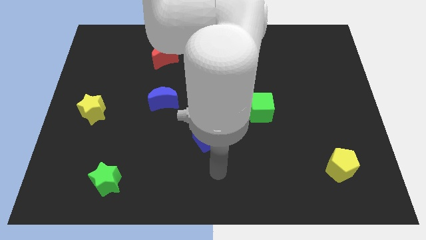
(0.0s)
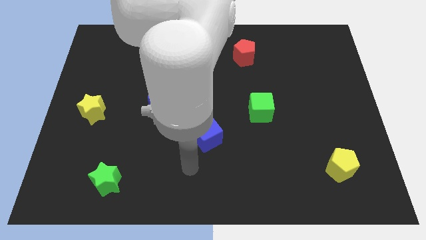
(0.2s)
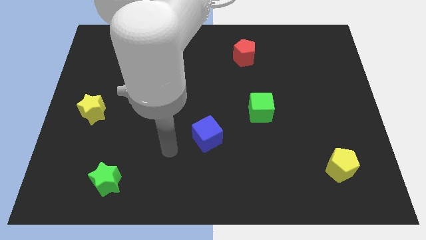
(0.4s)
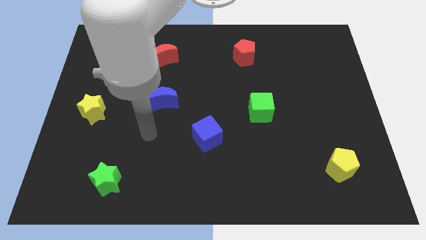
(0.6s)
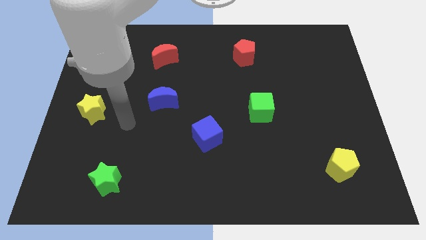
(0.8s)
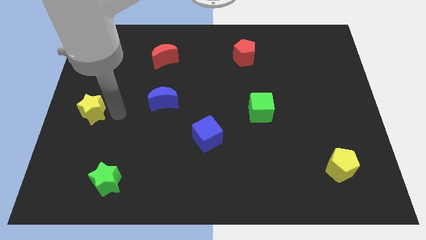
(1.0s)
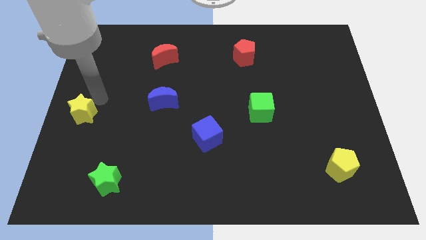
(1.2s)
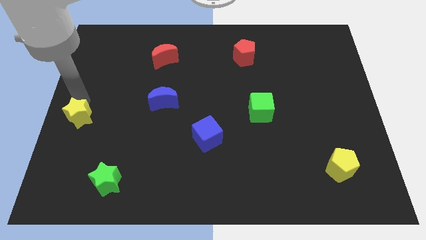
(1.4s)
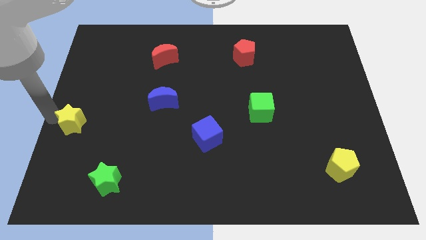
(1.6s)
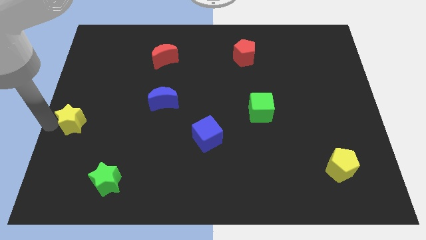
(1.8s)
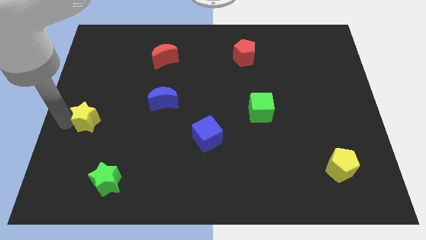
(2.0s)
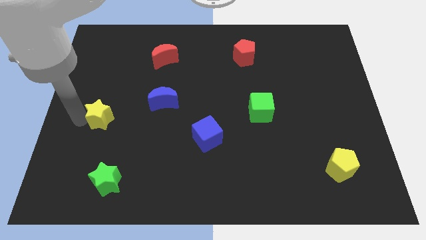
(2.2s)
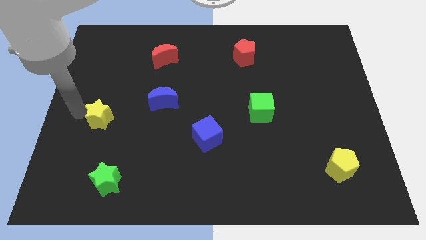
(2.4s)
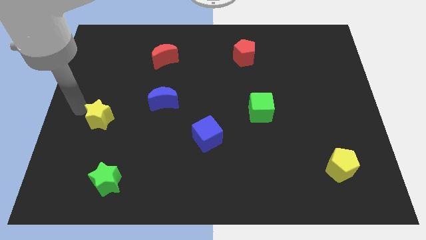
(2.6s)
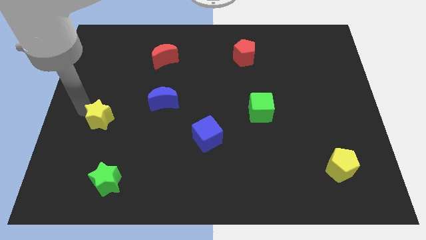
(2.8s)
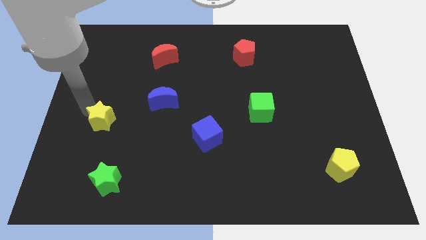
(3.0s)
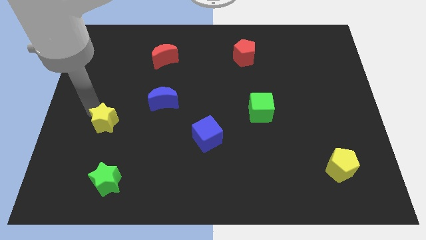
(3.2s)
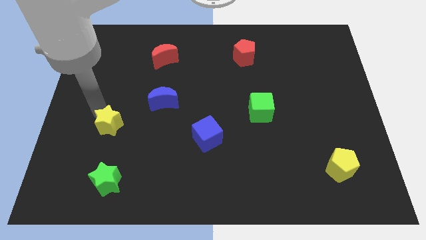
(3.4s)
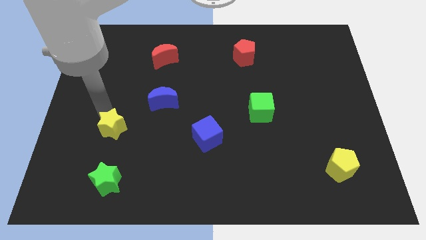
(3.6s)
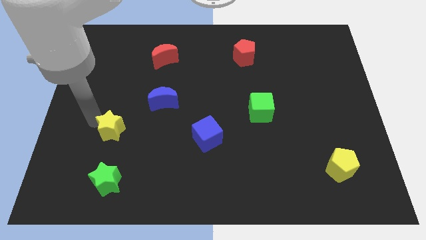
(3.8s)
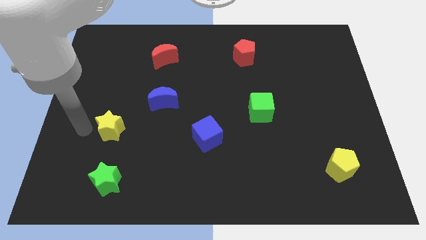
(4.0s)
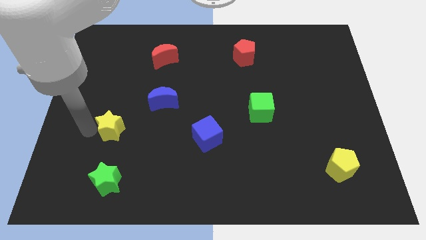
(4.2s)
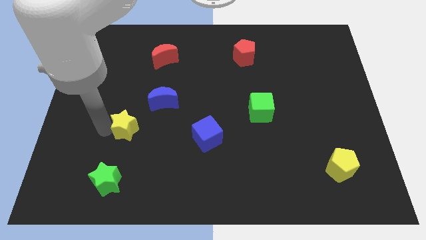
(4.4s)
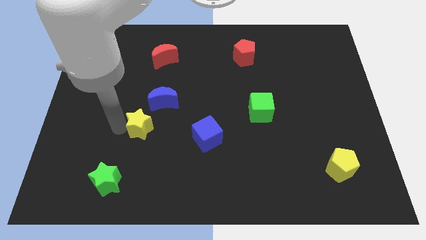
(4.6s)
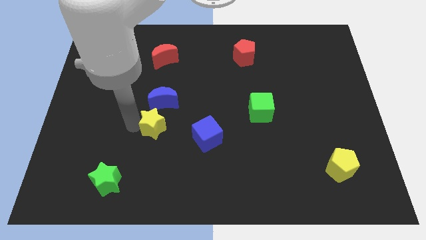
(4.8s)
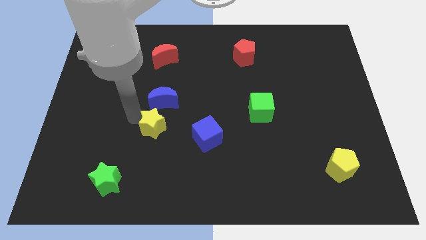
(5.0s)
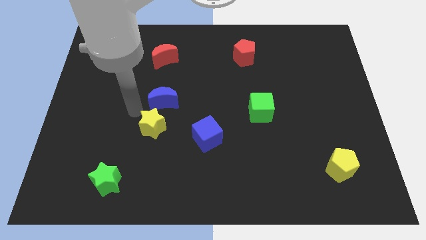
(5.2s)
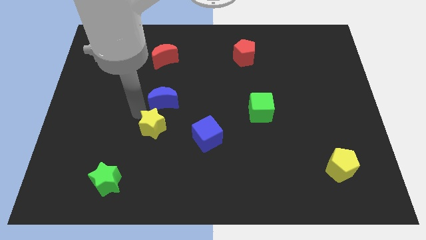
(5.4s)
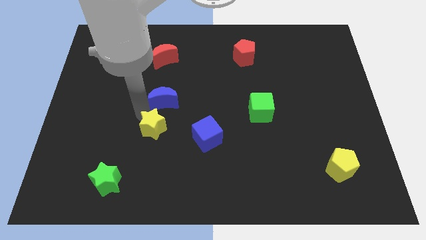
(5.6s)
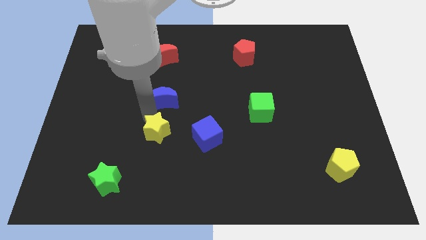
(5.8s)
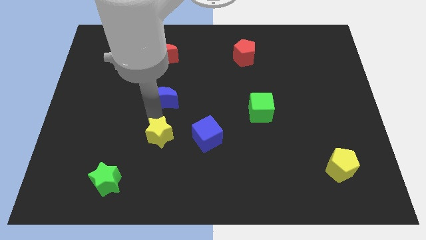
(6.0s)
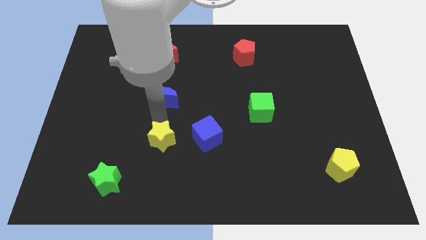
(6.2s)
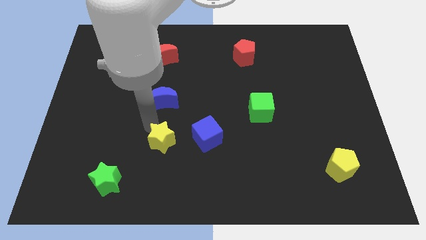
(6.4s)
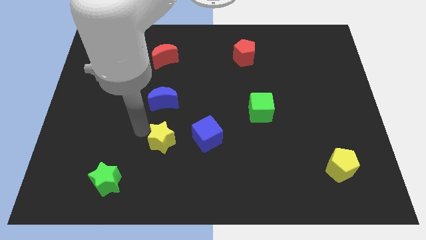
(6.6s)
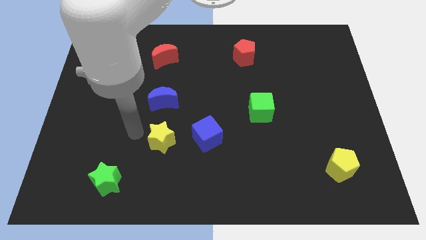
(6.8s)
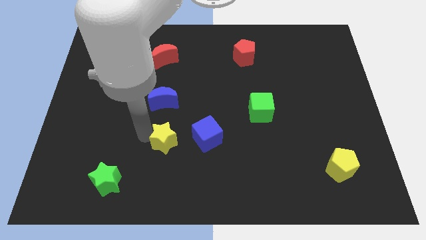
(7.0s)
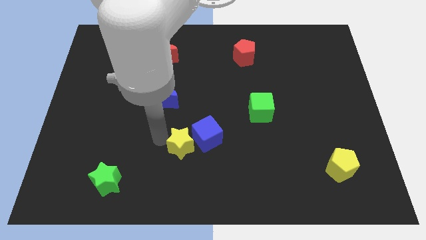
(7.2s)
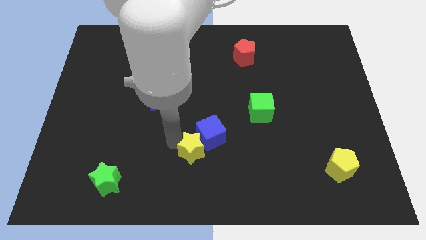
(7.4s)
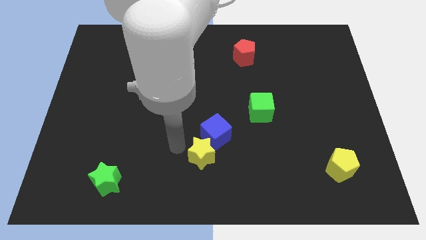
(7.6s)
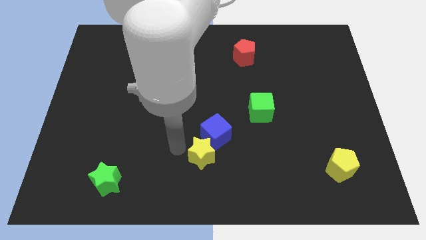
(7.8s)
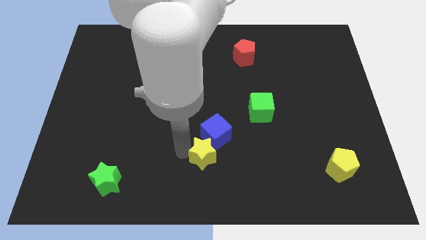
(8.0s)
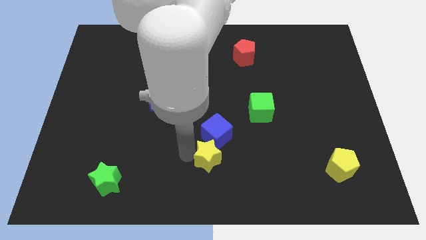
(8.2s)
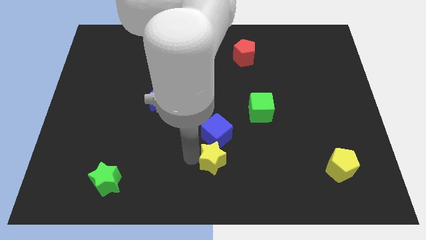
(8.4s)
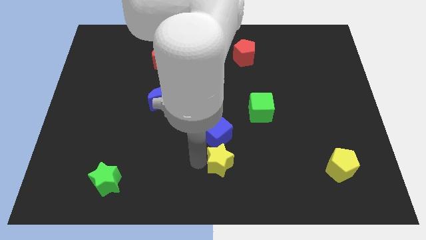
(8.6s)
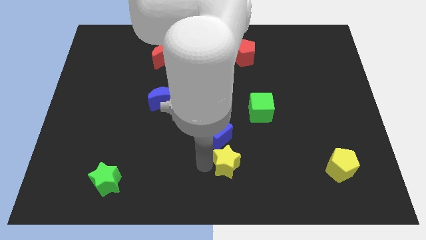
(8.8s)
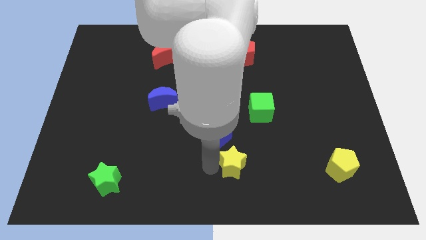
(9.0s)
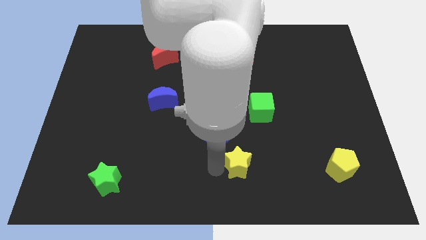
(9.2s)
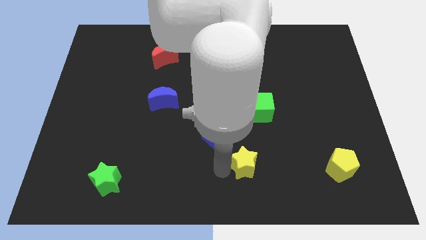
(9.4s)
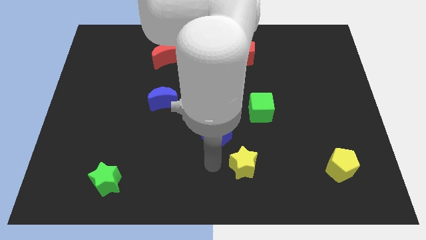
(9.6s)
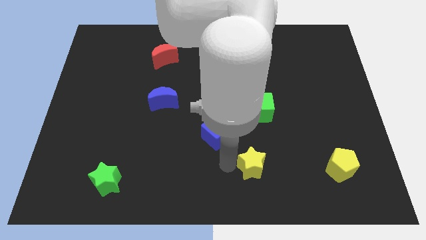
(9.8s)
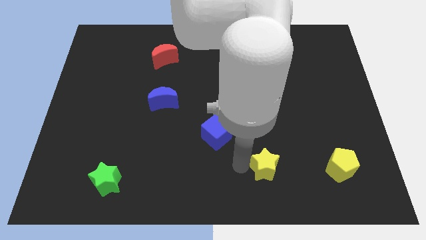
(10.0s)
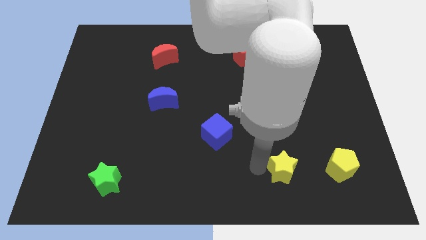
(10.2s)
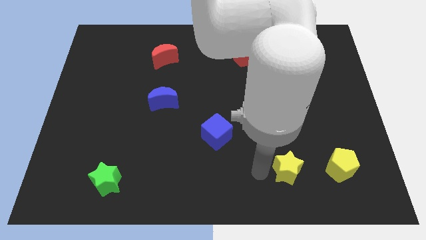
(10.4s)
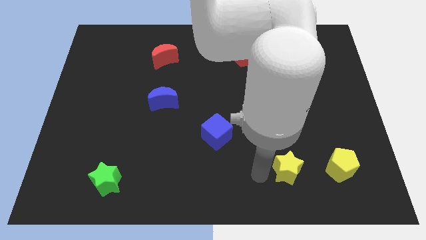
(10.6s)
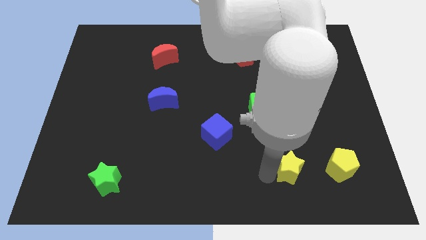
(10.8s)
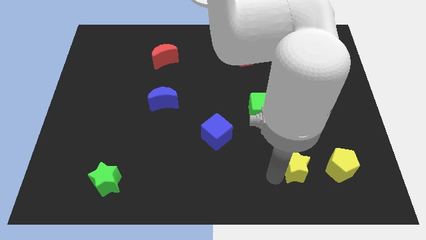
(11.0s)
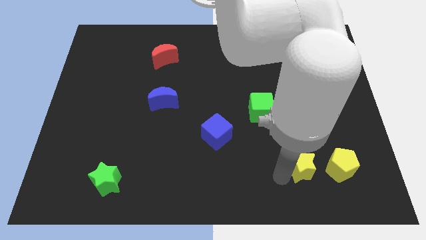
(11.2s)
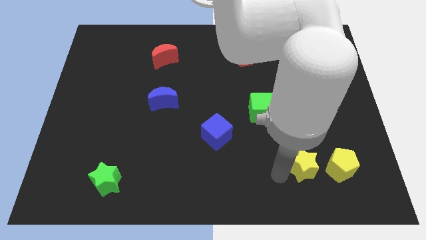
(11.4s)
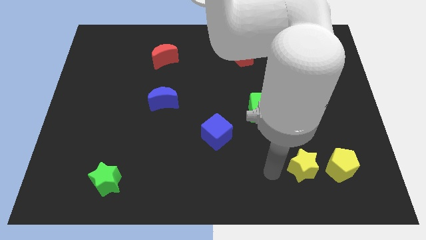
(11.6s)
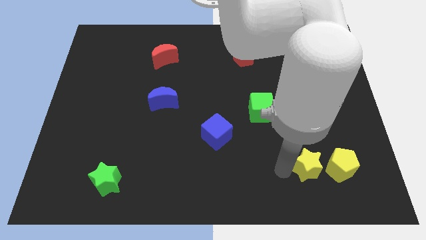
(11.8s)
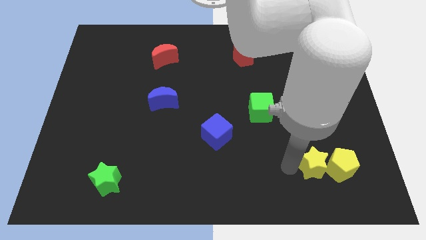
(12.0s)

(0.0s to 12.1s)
push the yellow star close to the yellow pentagon
